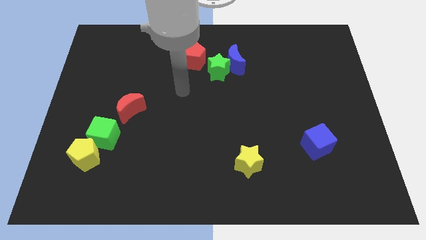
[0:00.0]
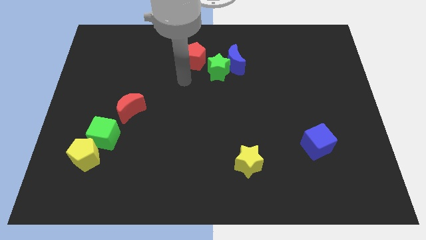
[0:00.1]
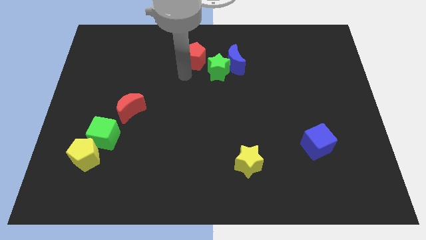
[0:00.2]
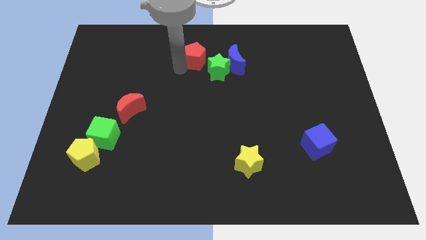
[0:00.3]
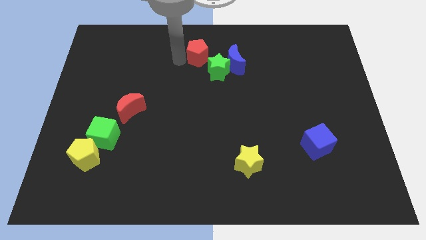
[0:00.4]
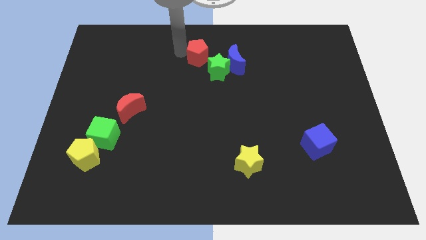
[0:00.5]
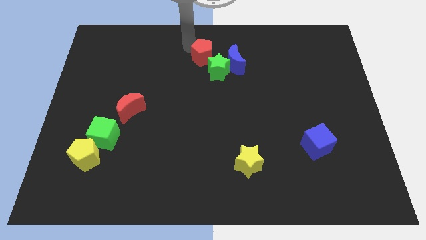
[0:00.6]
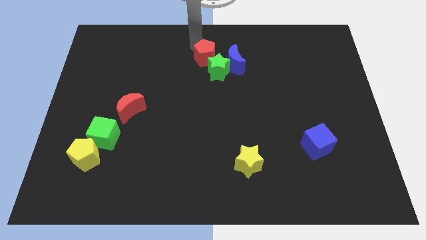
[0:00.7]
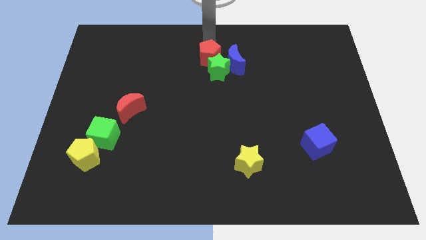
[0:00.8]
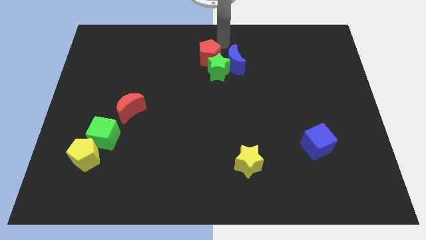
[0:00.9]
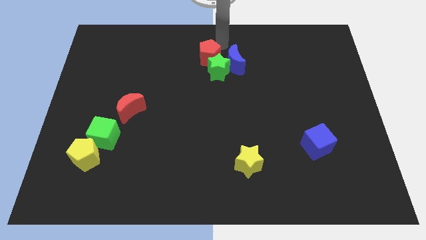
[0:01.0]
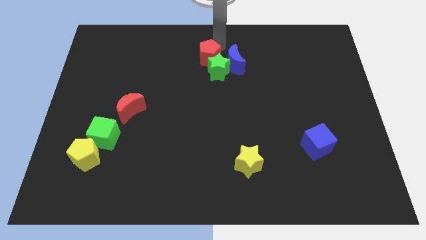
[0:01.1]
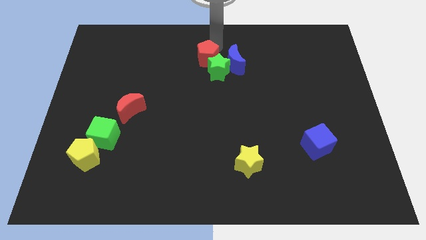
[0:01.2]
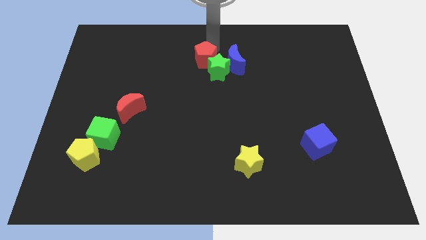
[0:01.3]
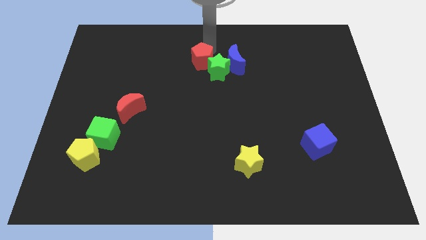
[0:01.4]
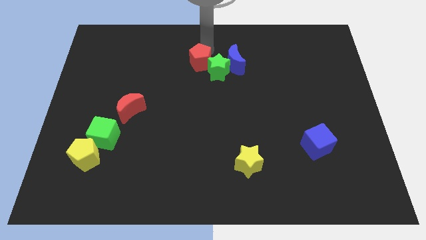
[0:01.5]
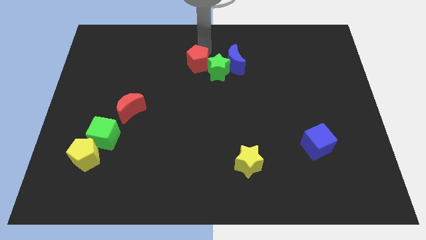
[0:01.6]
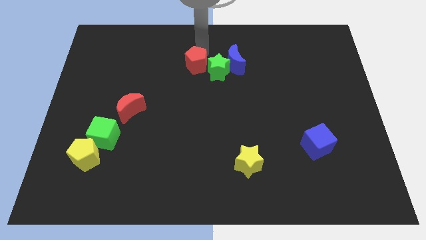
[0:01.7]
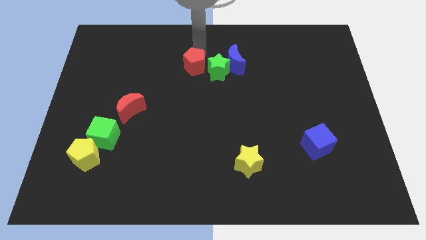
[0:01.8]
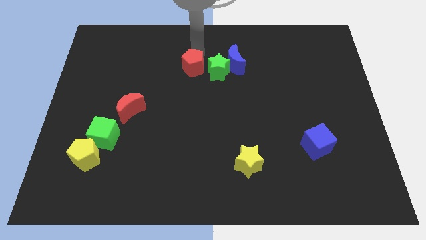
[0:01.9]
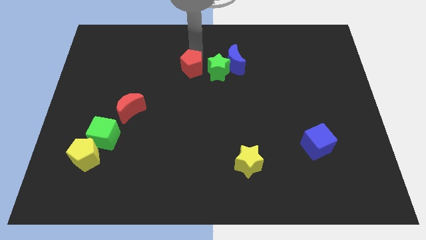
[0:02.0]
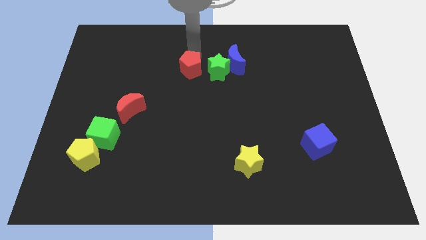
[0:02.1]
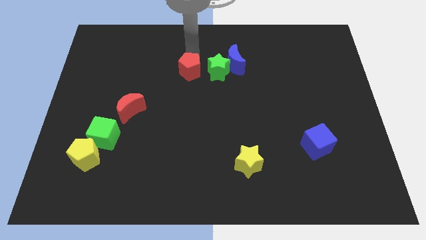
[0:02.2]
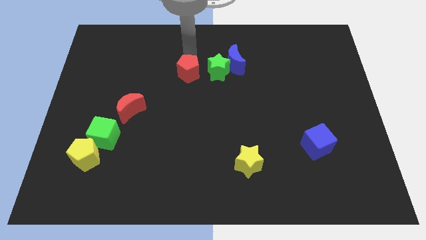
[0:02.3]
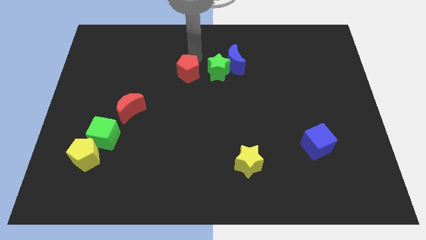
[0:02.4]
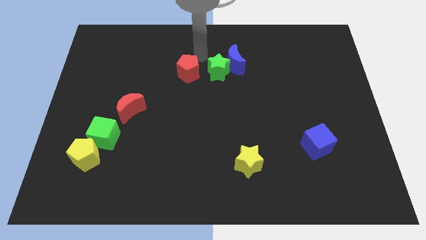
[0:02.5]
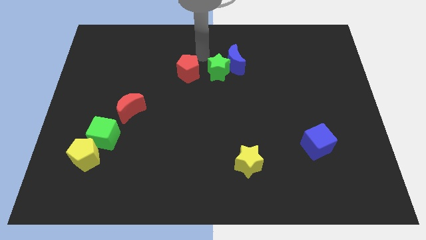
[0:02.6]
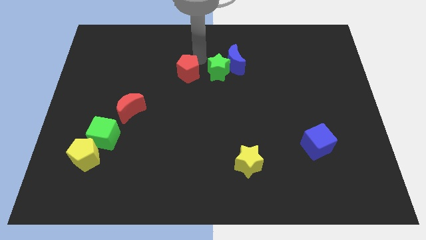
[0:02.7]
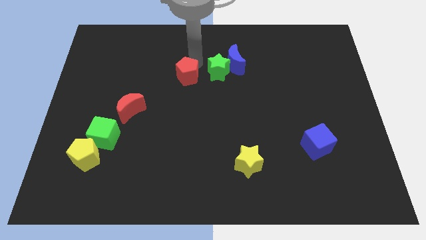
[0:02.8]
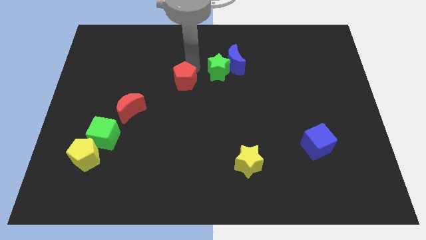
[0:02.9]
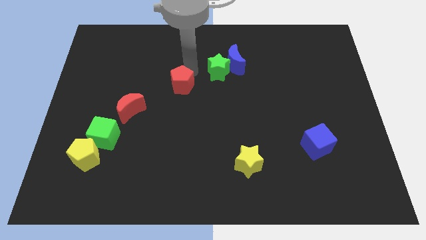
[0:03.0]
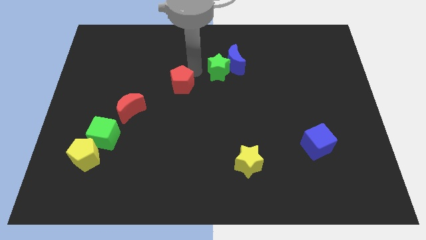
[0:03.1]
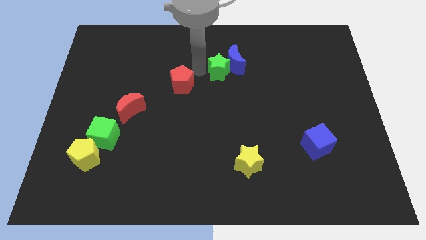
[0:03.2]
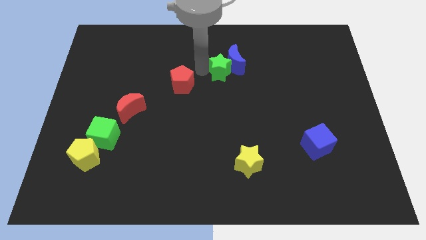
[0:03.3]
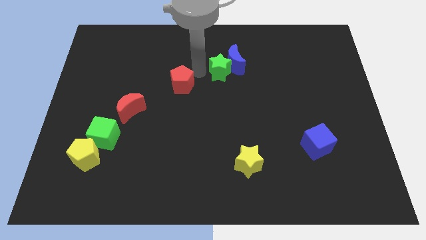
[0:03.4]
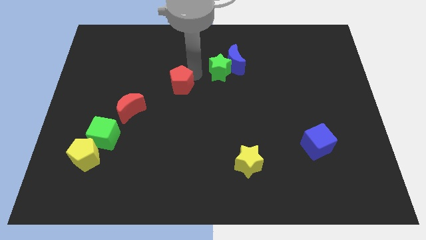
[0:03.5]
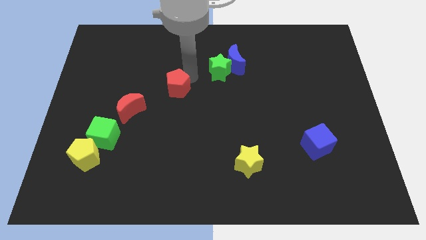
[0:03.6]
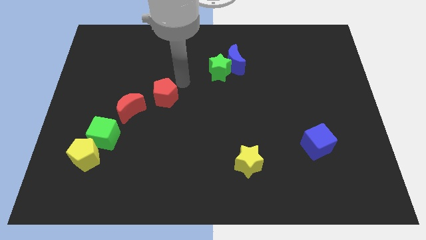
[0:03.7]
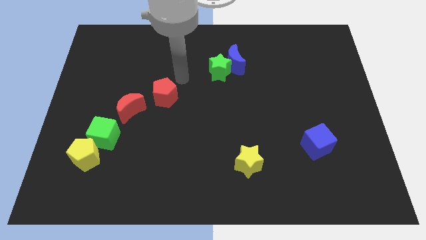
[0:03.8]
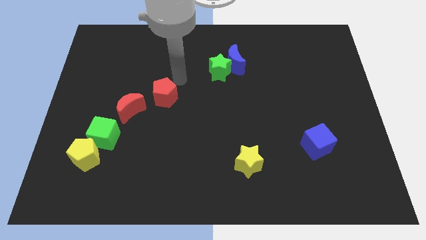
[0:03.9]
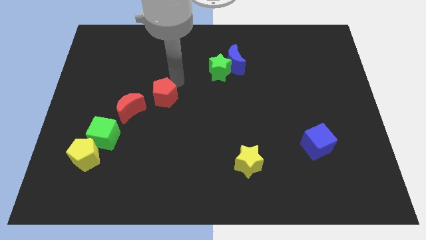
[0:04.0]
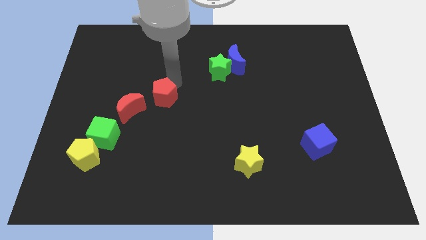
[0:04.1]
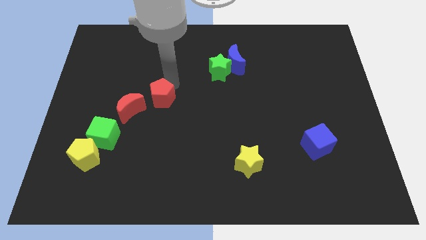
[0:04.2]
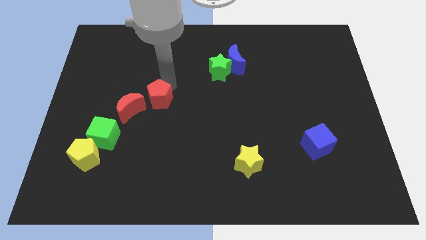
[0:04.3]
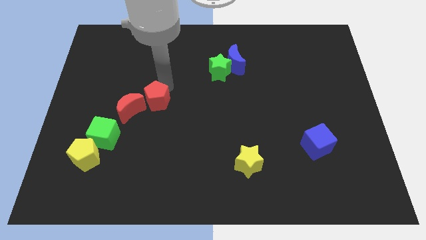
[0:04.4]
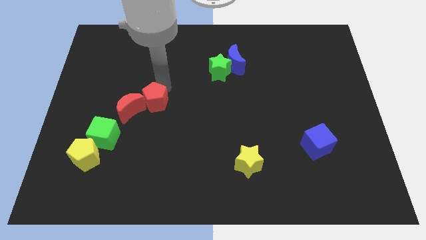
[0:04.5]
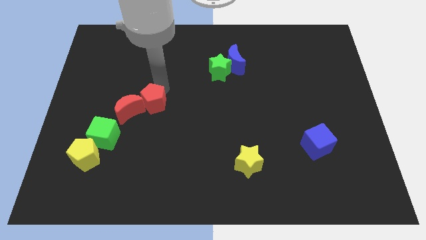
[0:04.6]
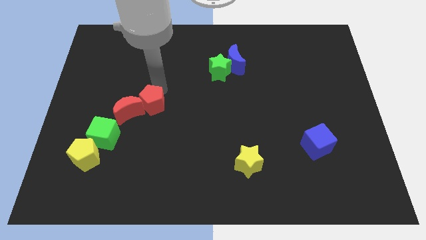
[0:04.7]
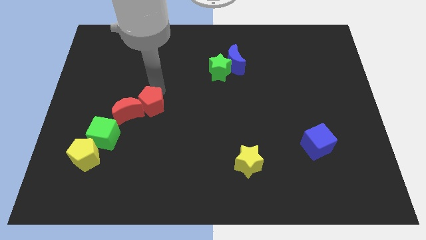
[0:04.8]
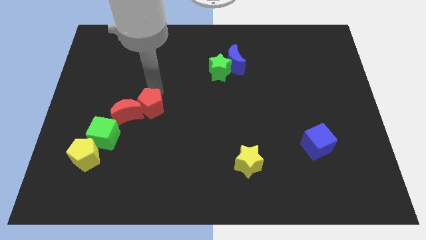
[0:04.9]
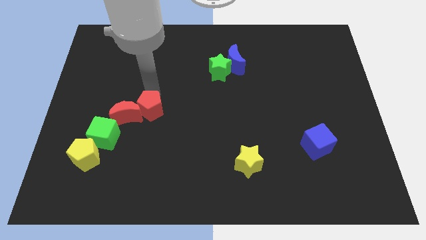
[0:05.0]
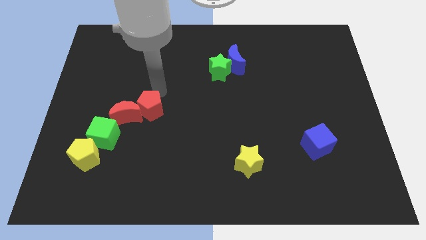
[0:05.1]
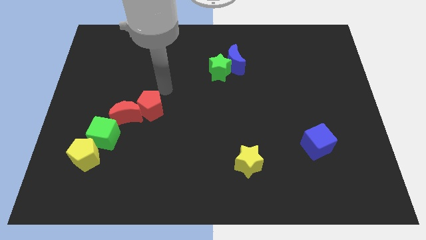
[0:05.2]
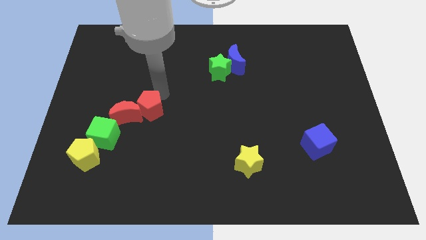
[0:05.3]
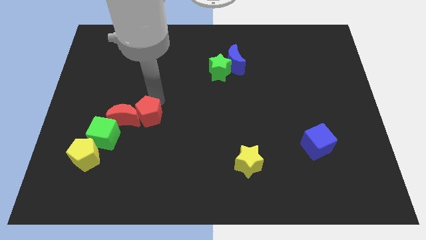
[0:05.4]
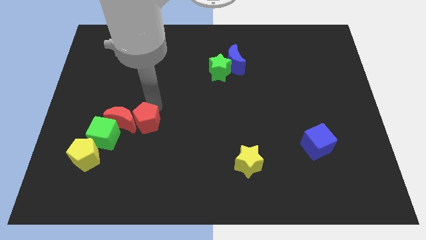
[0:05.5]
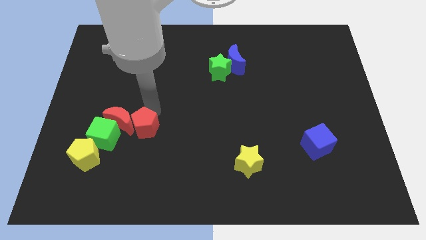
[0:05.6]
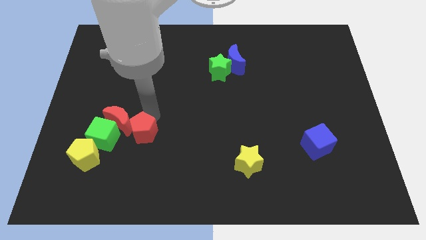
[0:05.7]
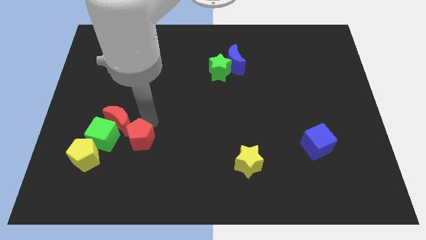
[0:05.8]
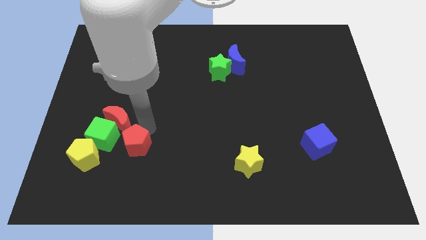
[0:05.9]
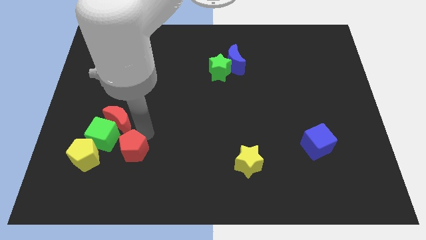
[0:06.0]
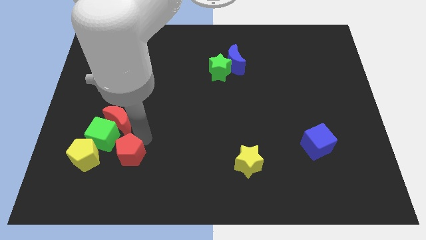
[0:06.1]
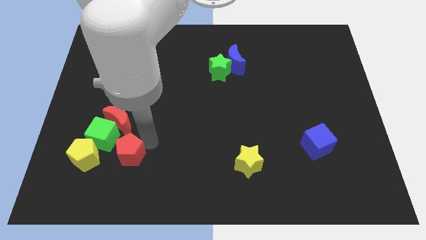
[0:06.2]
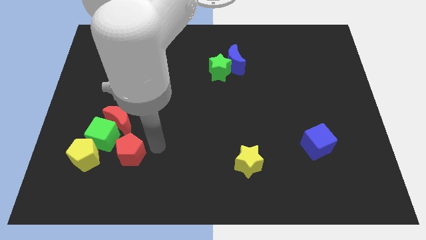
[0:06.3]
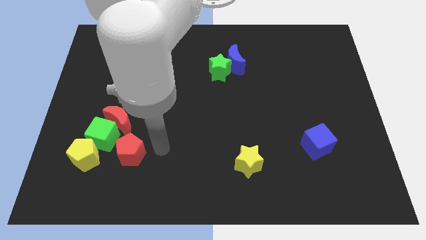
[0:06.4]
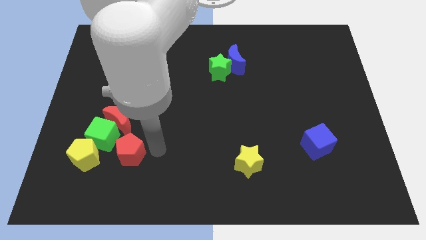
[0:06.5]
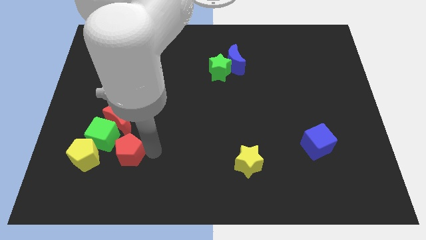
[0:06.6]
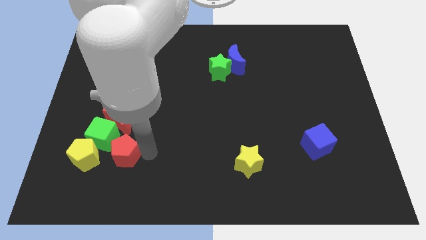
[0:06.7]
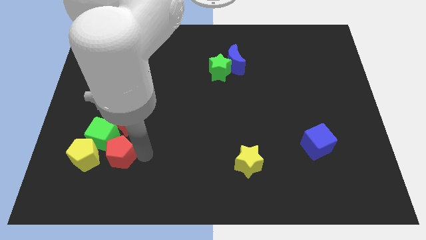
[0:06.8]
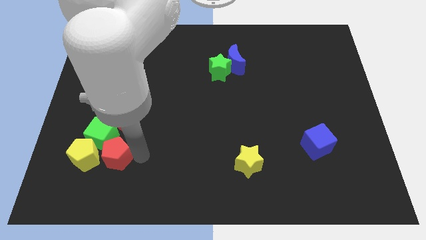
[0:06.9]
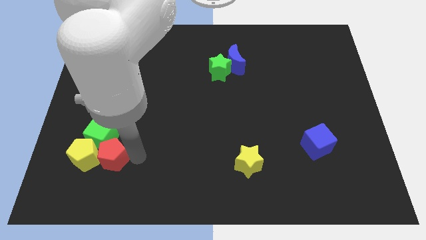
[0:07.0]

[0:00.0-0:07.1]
slide the red pentagon close to the yellow pentagon

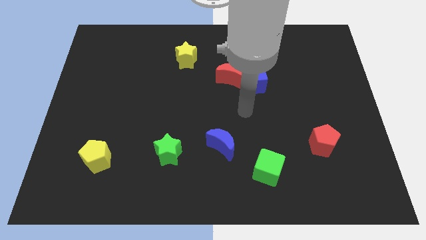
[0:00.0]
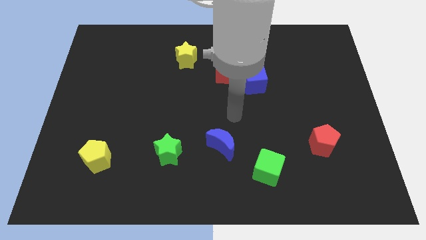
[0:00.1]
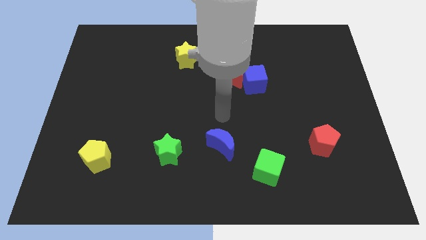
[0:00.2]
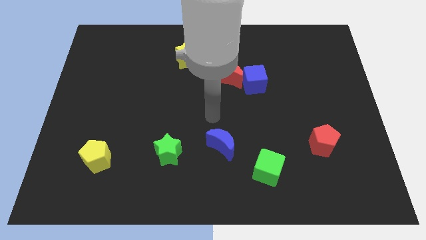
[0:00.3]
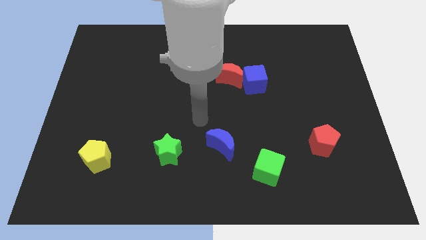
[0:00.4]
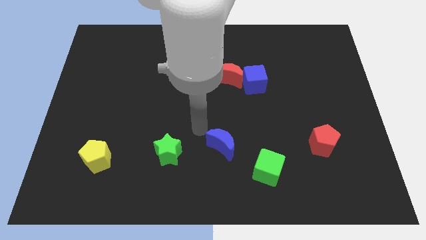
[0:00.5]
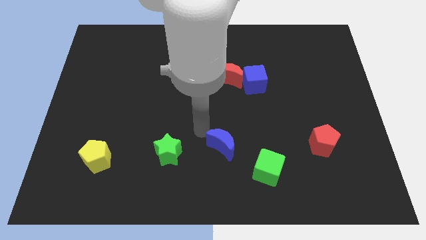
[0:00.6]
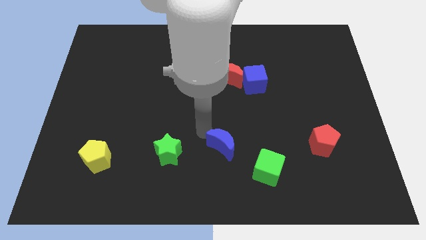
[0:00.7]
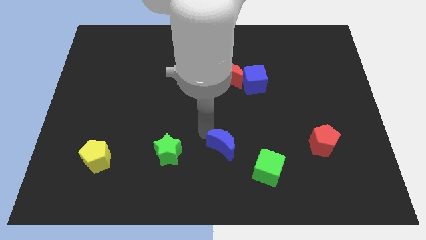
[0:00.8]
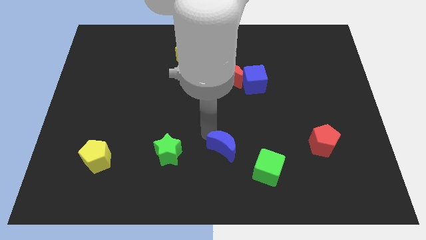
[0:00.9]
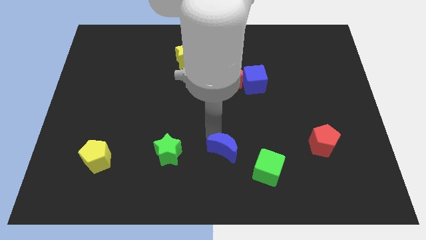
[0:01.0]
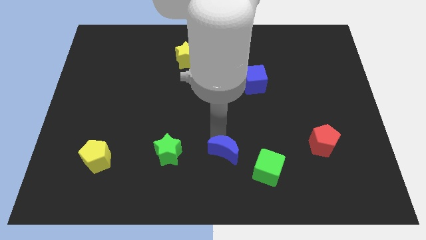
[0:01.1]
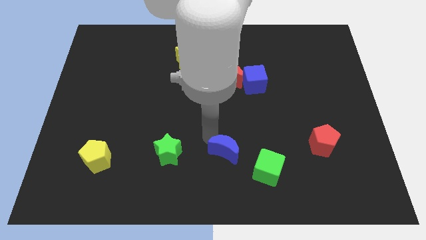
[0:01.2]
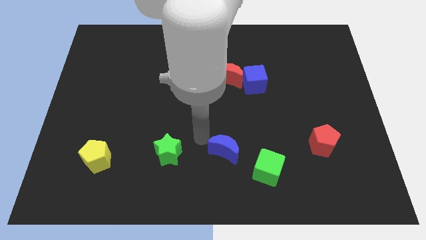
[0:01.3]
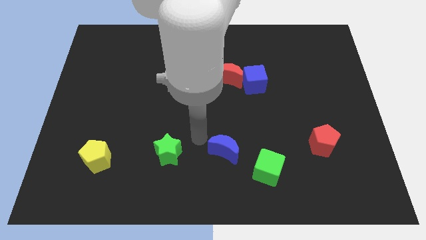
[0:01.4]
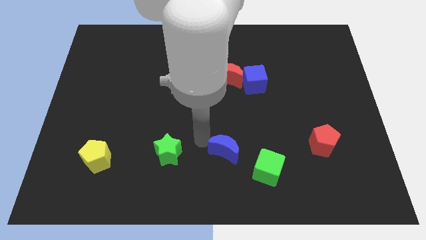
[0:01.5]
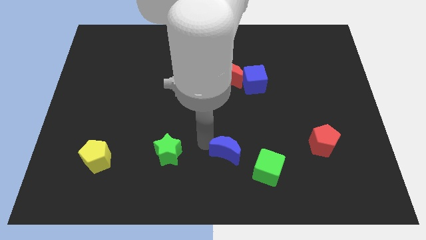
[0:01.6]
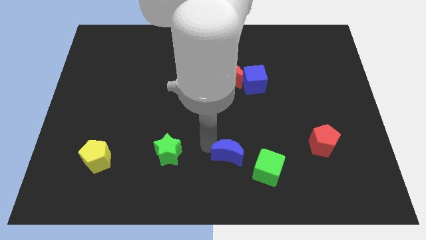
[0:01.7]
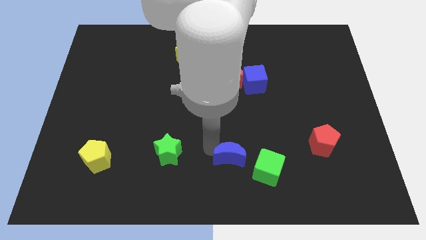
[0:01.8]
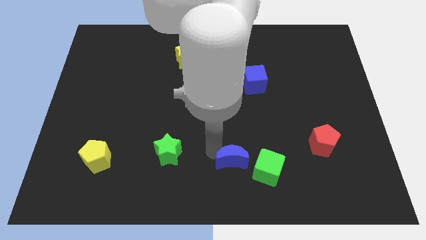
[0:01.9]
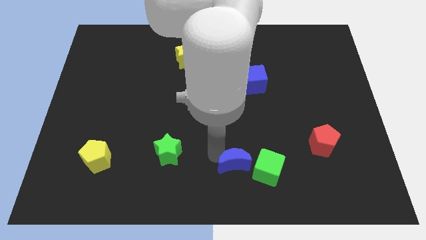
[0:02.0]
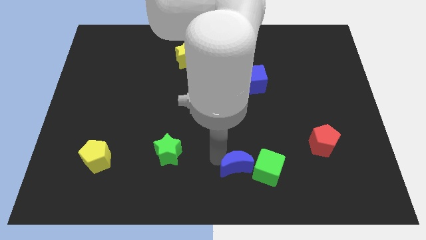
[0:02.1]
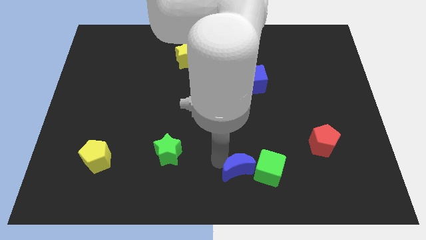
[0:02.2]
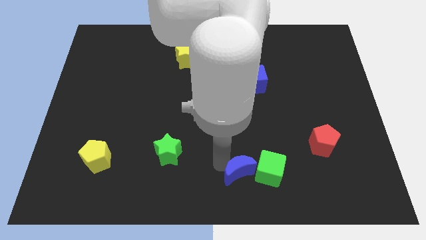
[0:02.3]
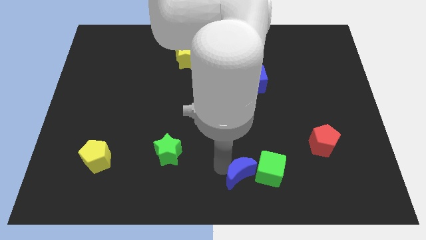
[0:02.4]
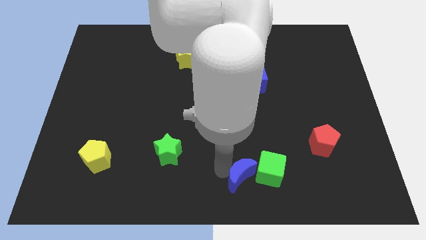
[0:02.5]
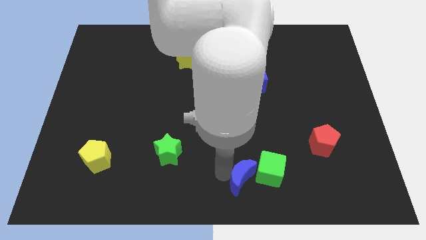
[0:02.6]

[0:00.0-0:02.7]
move the blue moon close to the green cube
